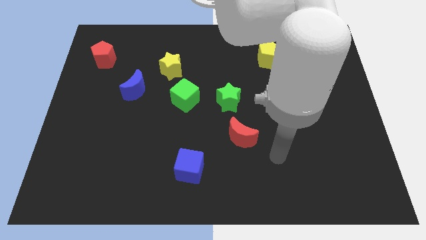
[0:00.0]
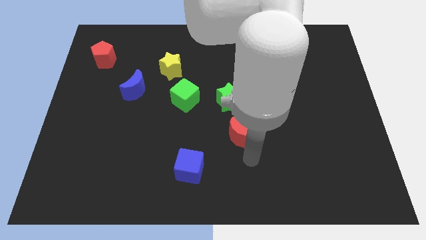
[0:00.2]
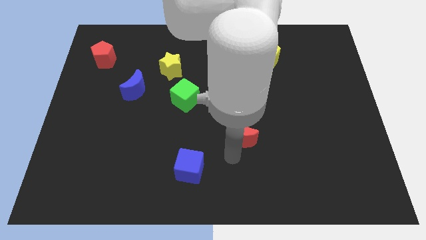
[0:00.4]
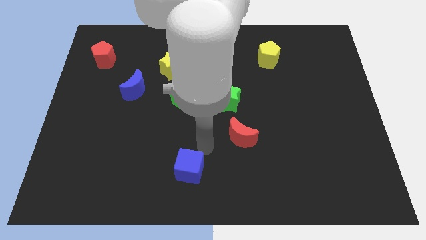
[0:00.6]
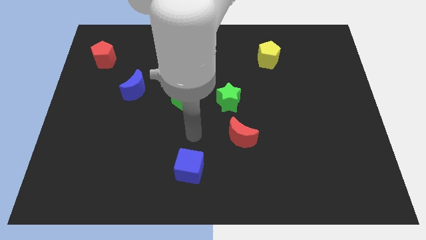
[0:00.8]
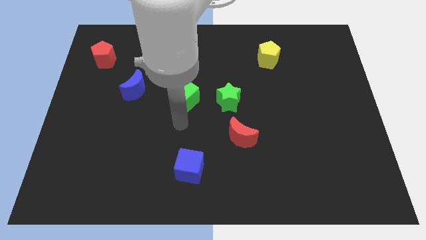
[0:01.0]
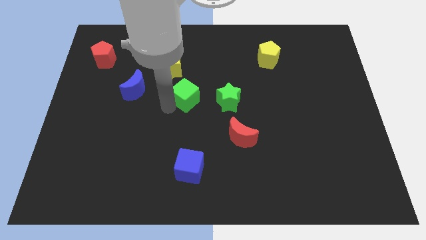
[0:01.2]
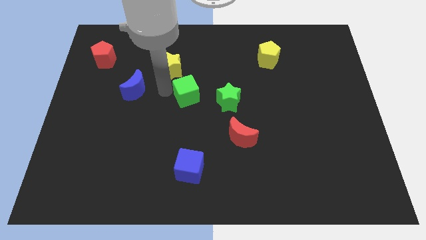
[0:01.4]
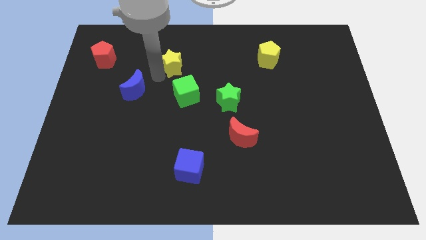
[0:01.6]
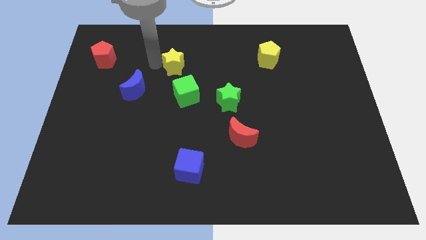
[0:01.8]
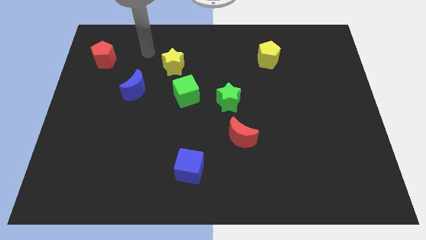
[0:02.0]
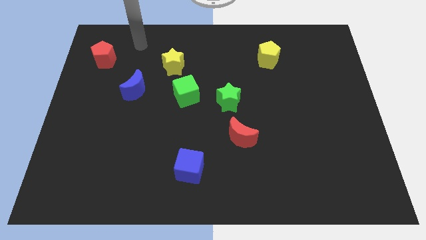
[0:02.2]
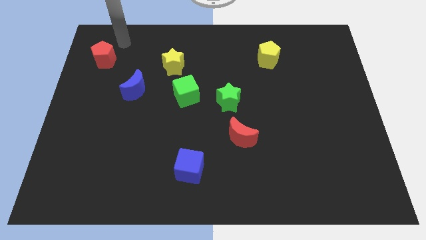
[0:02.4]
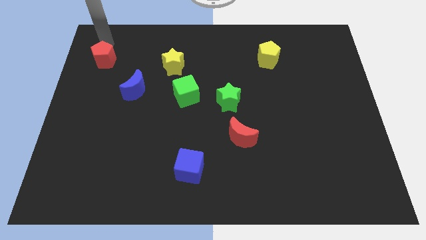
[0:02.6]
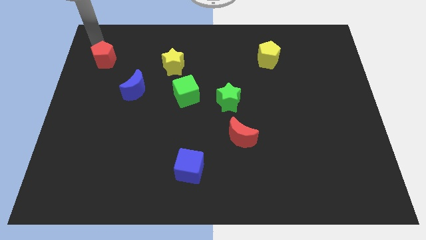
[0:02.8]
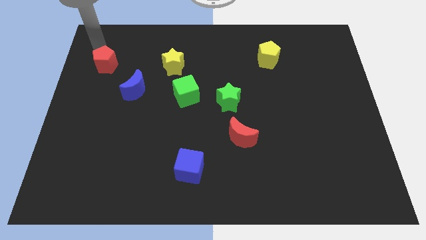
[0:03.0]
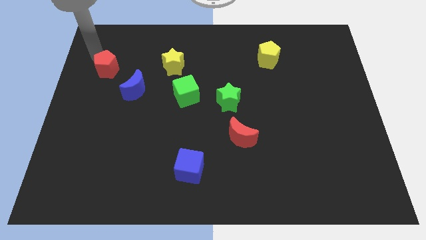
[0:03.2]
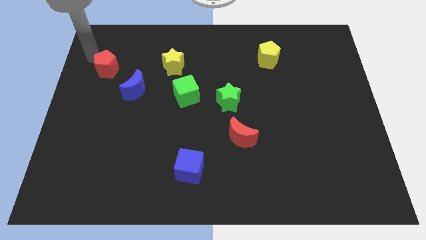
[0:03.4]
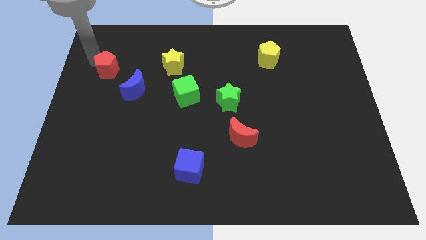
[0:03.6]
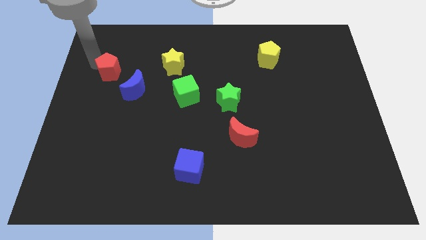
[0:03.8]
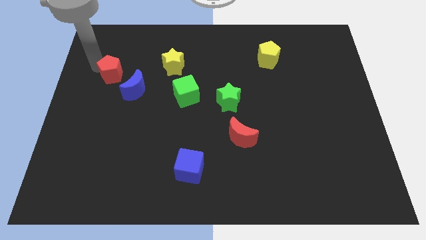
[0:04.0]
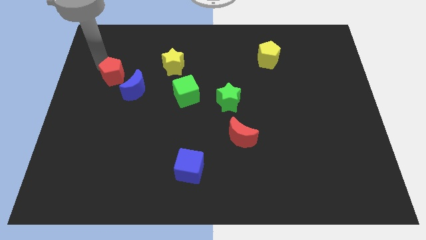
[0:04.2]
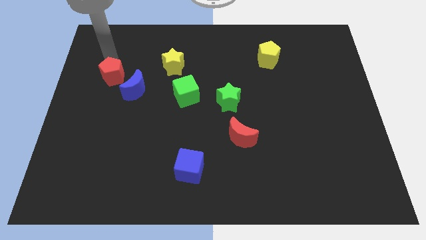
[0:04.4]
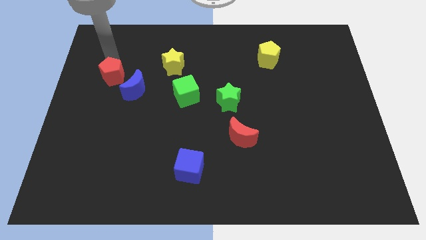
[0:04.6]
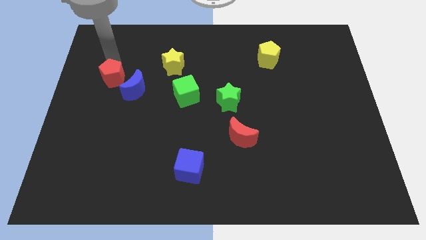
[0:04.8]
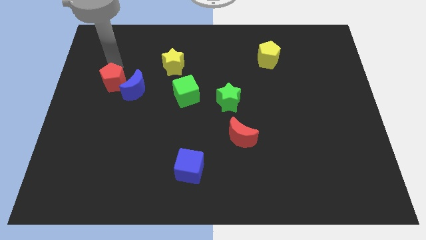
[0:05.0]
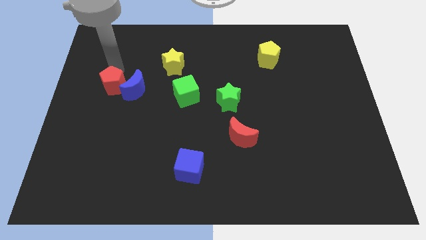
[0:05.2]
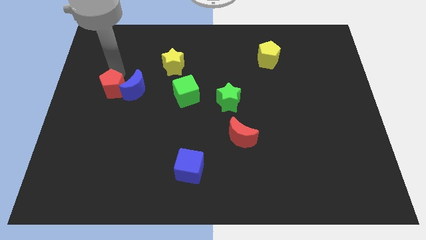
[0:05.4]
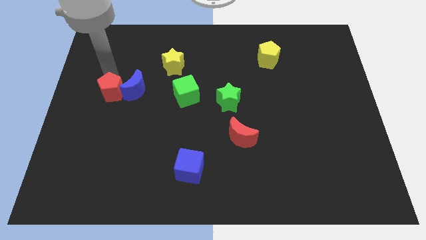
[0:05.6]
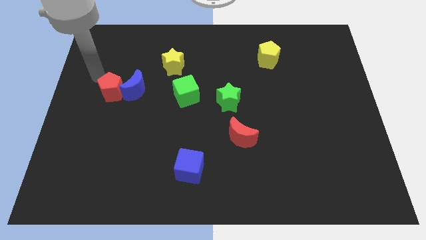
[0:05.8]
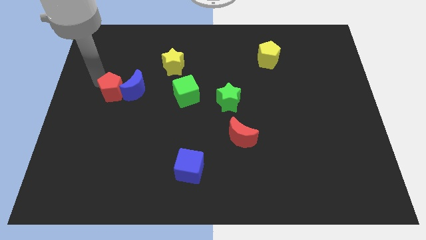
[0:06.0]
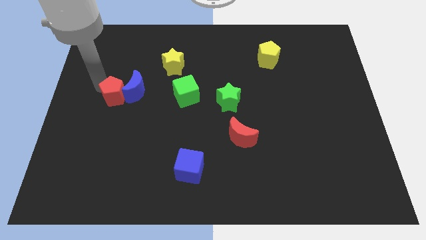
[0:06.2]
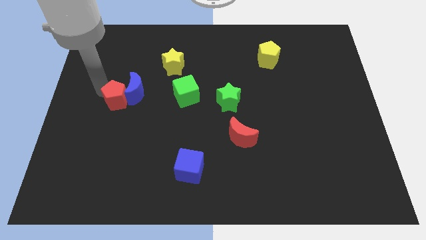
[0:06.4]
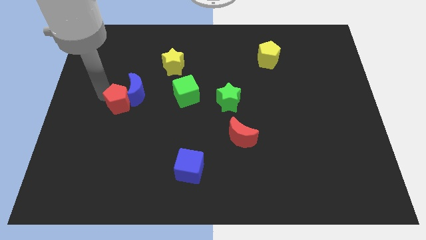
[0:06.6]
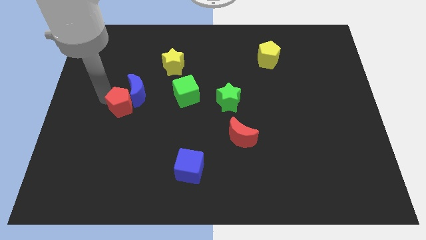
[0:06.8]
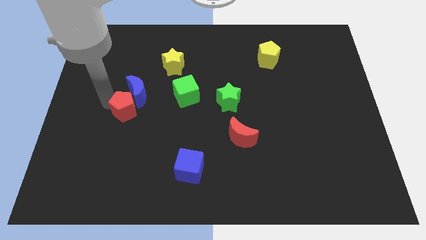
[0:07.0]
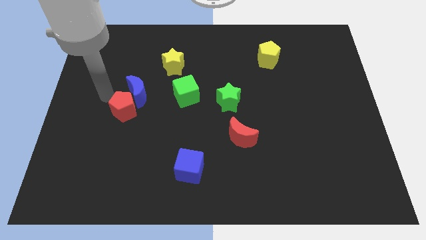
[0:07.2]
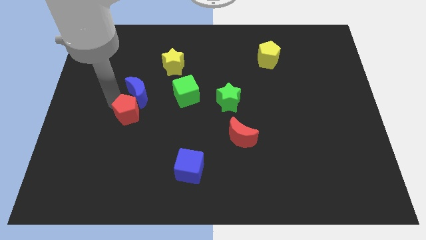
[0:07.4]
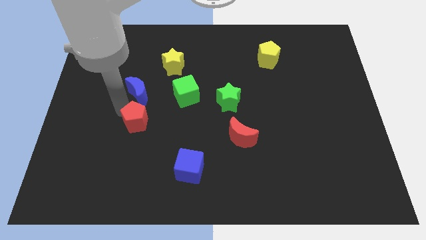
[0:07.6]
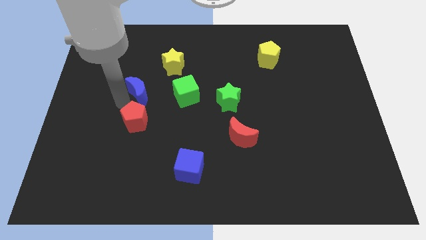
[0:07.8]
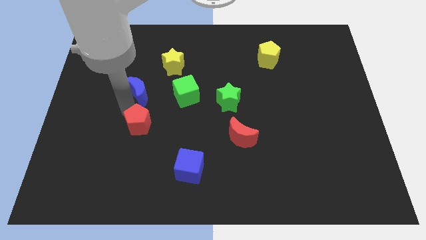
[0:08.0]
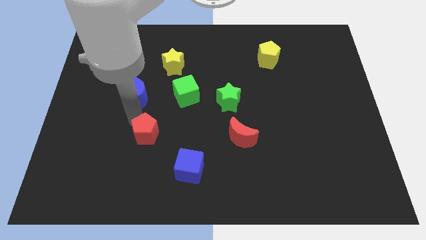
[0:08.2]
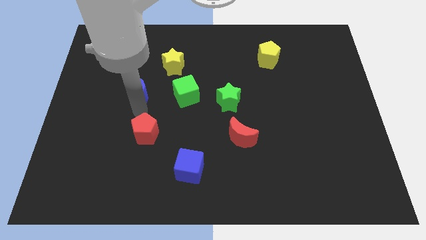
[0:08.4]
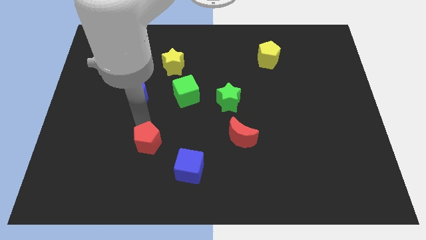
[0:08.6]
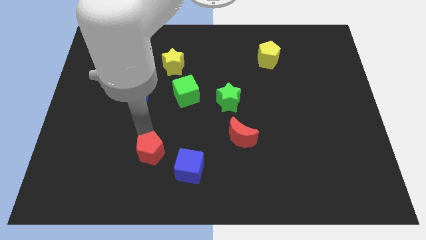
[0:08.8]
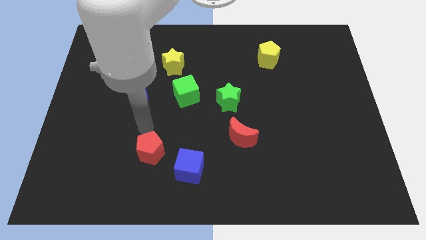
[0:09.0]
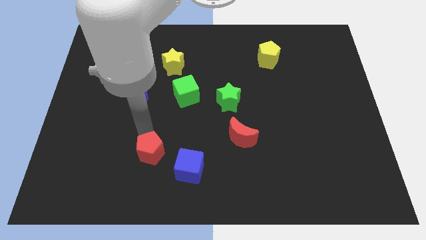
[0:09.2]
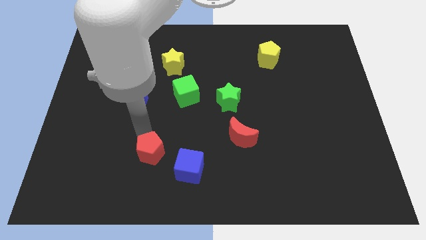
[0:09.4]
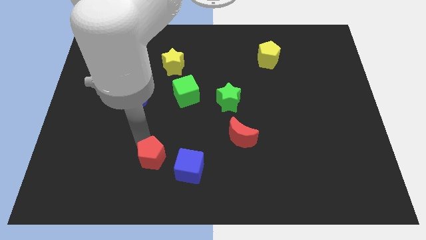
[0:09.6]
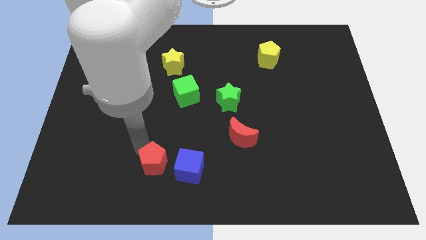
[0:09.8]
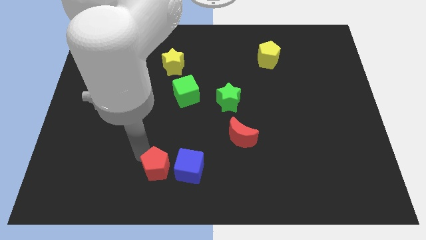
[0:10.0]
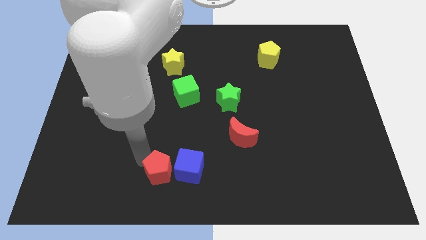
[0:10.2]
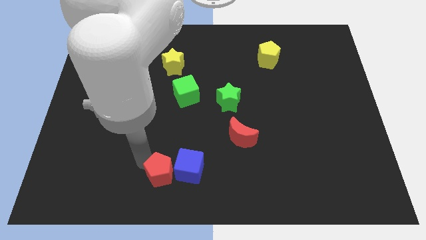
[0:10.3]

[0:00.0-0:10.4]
slide the red pentagon to the bottom
